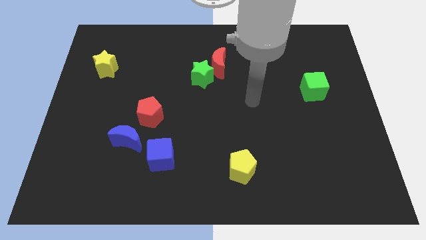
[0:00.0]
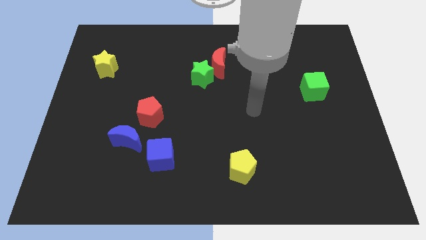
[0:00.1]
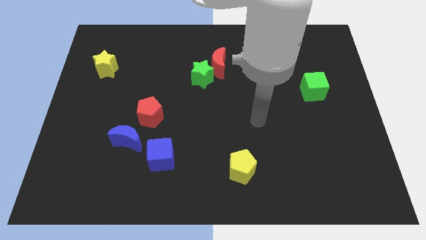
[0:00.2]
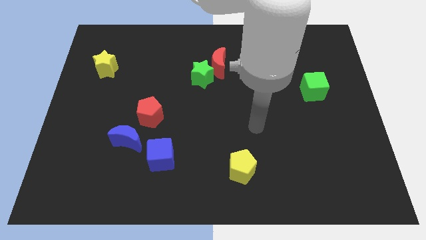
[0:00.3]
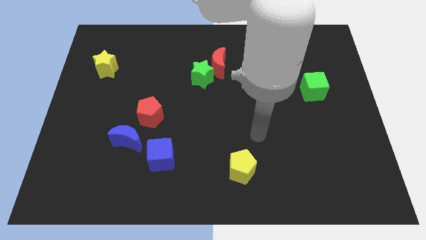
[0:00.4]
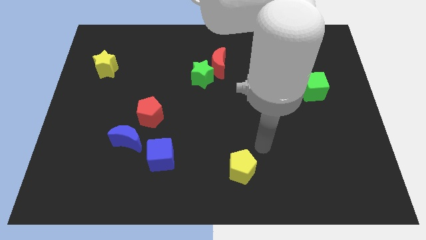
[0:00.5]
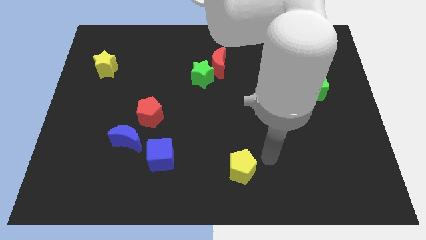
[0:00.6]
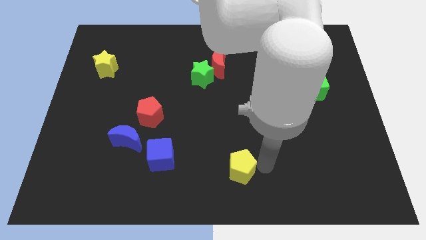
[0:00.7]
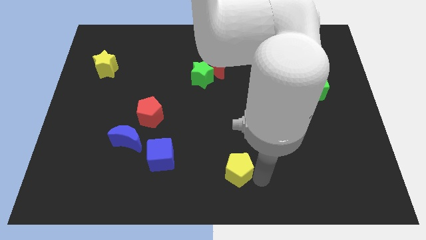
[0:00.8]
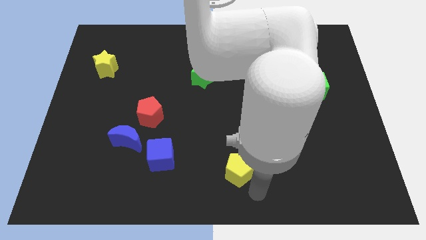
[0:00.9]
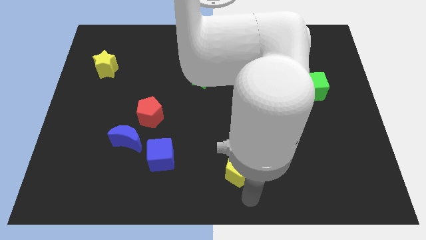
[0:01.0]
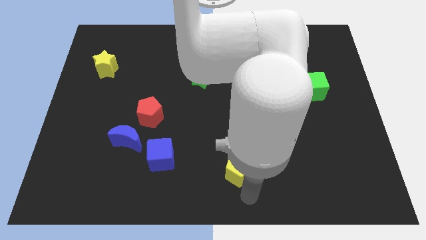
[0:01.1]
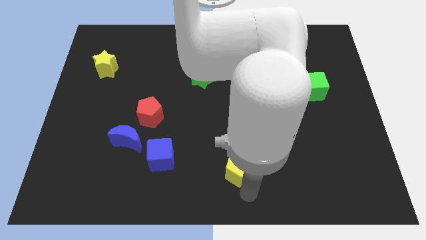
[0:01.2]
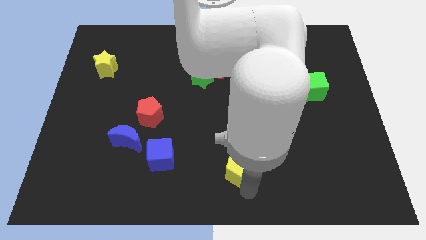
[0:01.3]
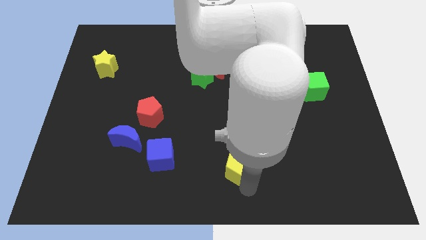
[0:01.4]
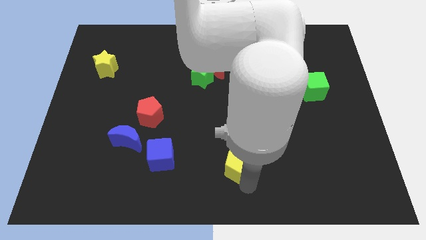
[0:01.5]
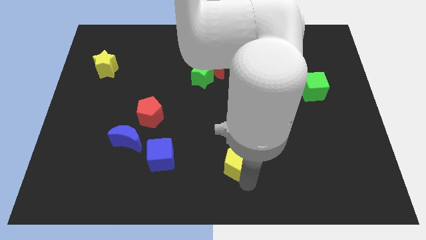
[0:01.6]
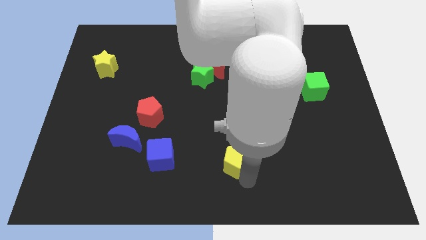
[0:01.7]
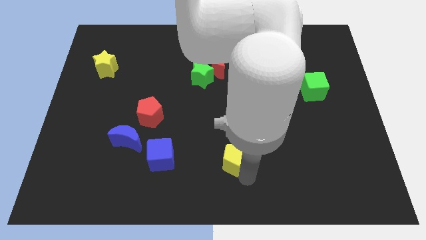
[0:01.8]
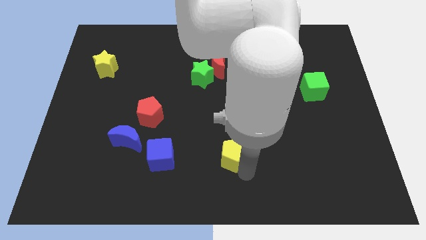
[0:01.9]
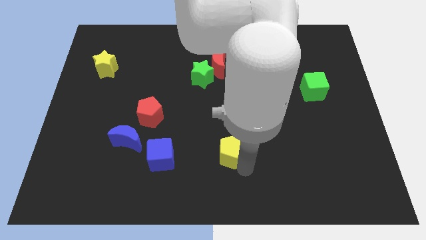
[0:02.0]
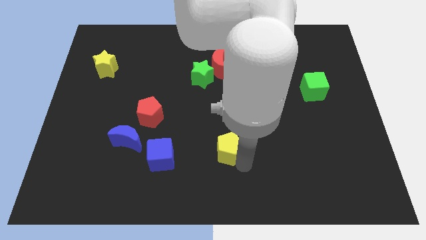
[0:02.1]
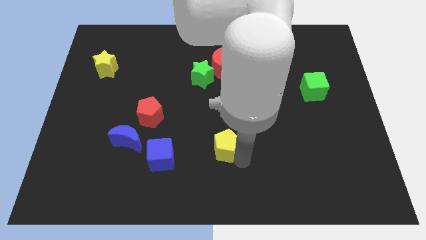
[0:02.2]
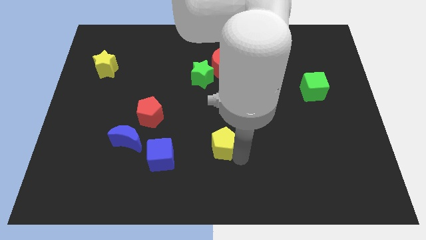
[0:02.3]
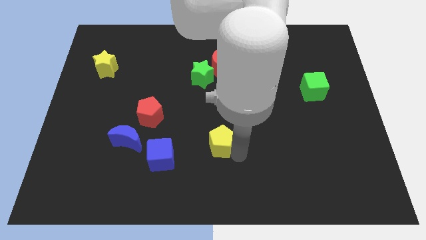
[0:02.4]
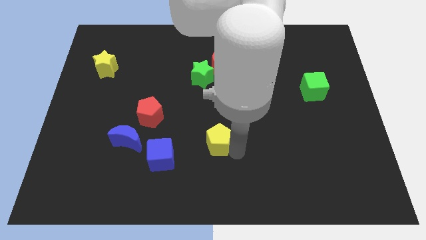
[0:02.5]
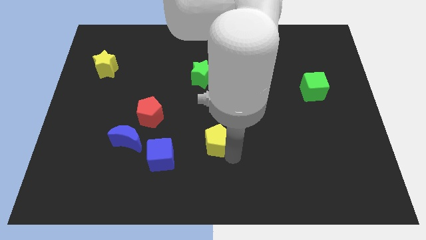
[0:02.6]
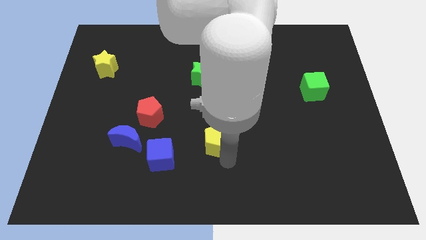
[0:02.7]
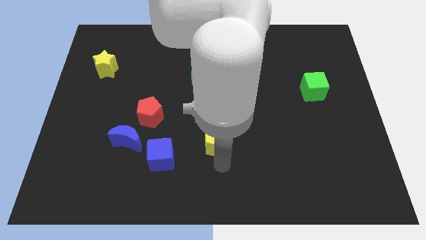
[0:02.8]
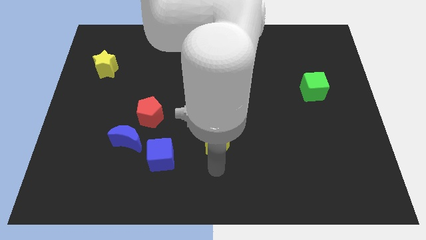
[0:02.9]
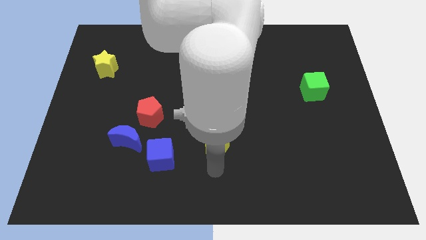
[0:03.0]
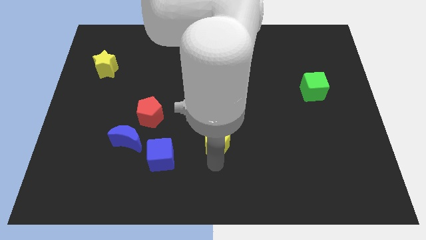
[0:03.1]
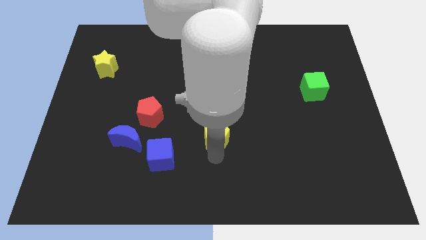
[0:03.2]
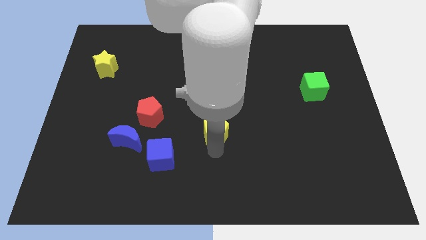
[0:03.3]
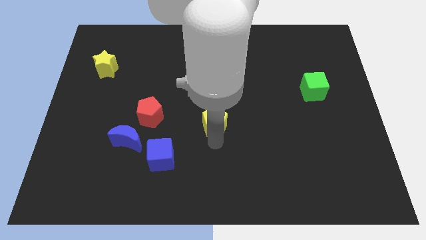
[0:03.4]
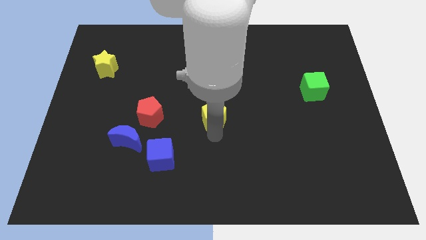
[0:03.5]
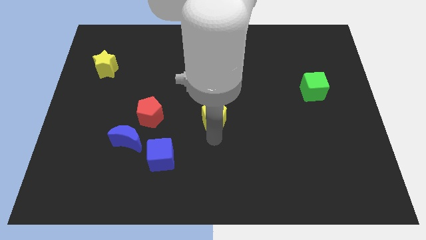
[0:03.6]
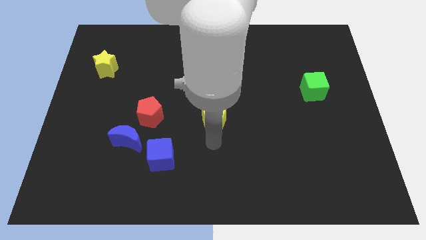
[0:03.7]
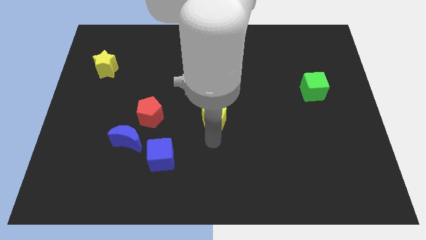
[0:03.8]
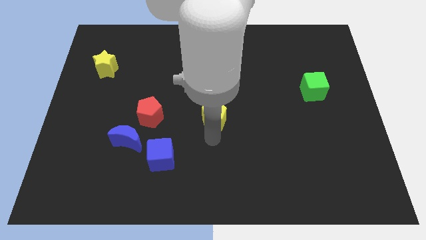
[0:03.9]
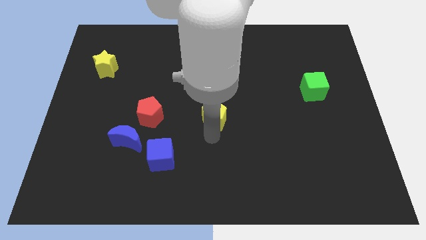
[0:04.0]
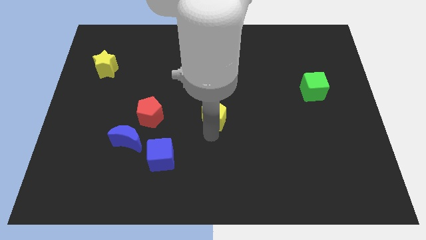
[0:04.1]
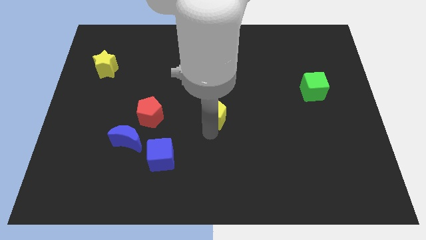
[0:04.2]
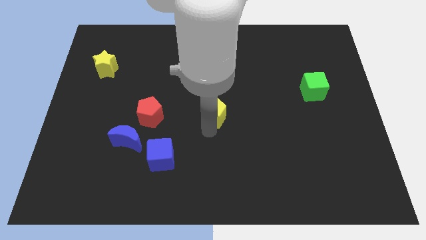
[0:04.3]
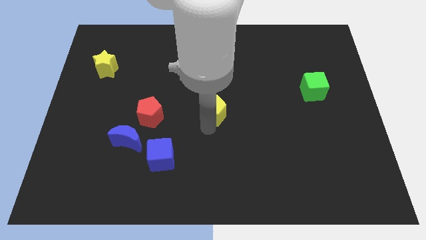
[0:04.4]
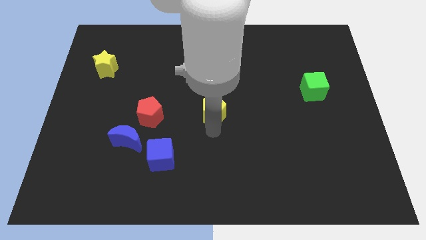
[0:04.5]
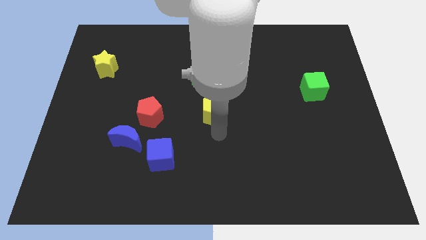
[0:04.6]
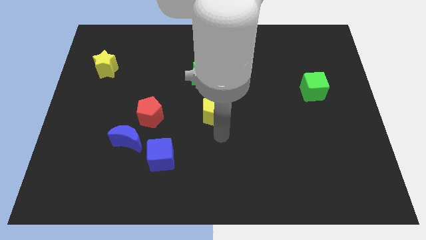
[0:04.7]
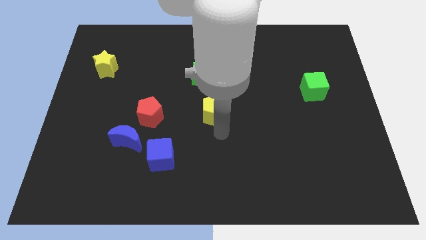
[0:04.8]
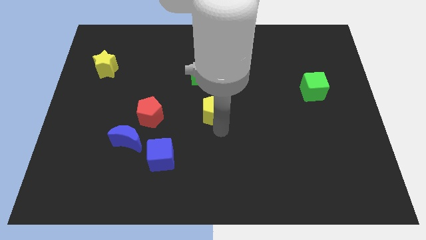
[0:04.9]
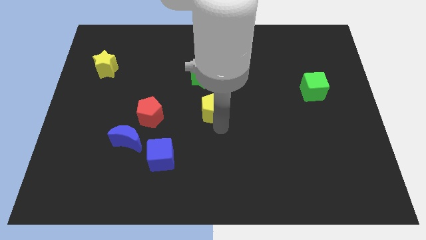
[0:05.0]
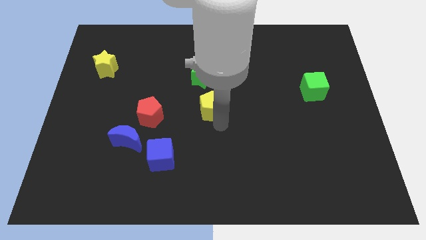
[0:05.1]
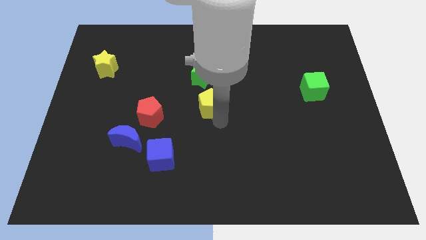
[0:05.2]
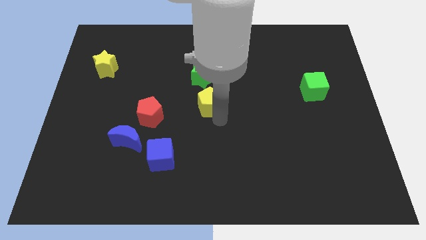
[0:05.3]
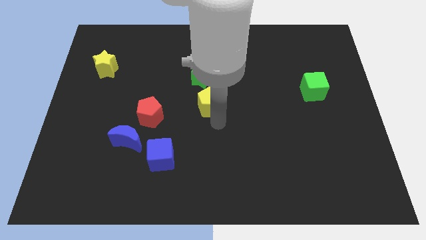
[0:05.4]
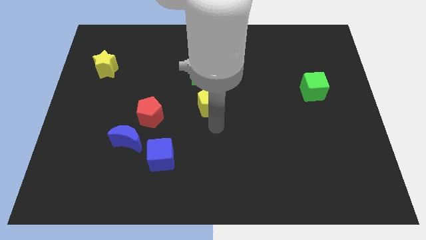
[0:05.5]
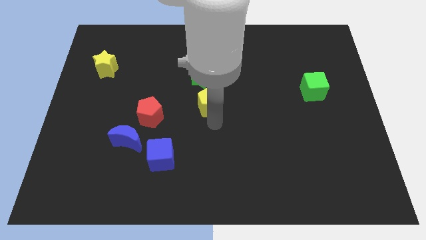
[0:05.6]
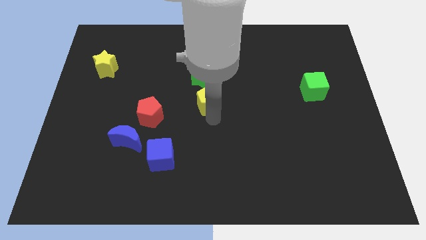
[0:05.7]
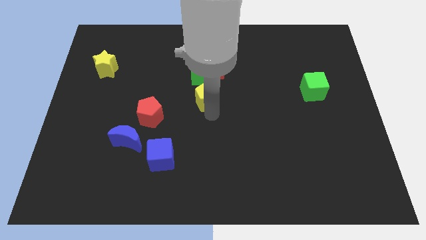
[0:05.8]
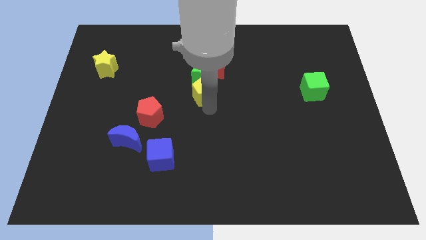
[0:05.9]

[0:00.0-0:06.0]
slide the yellow pentagon next to the green star

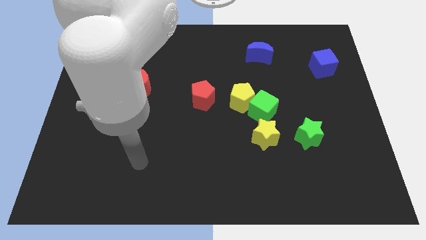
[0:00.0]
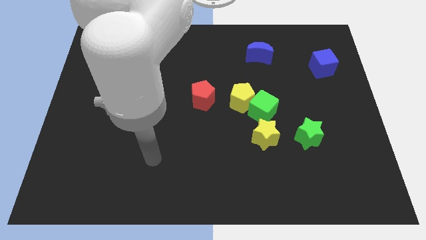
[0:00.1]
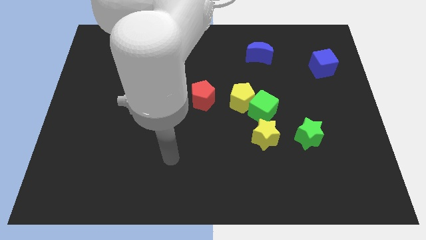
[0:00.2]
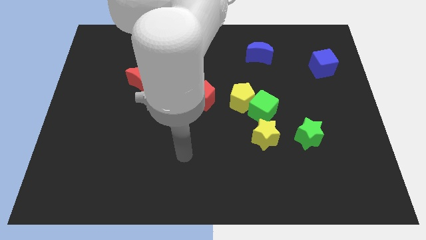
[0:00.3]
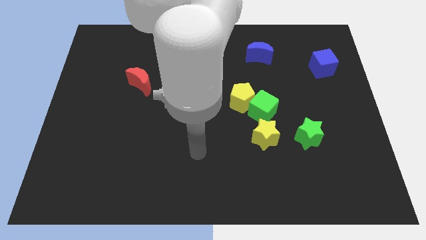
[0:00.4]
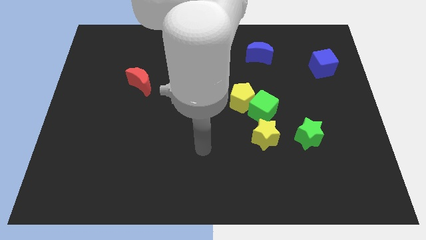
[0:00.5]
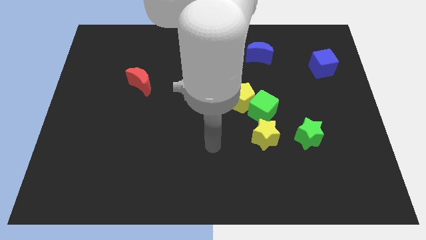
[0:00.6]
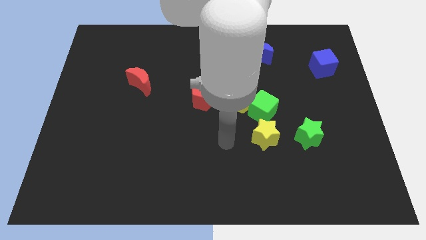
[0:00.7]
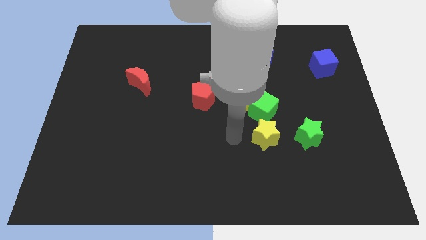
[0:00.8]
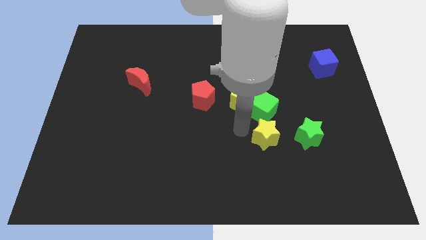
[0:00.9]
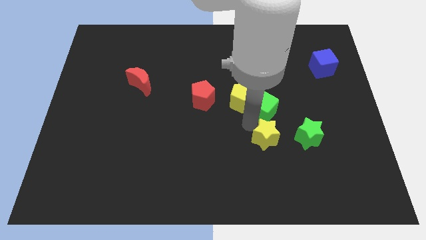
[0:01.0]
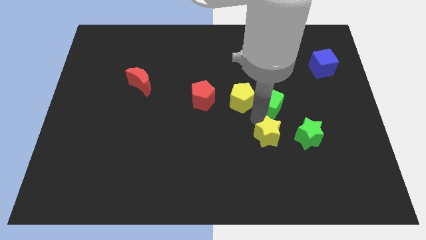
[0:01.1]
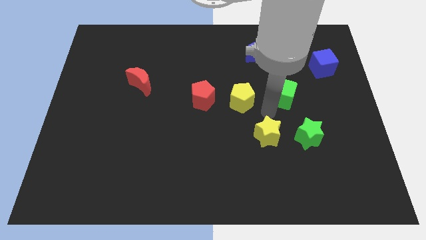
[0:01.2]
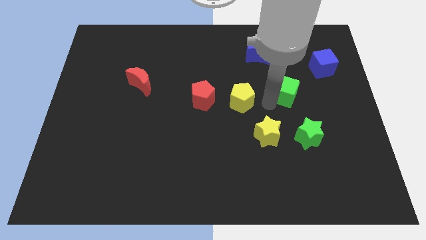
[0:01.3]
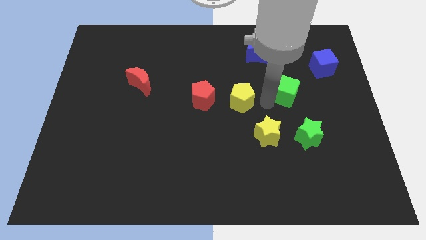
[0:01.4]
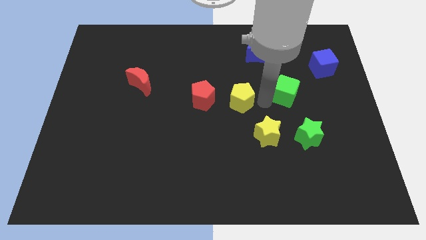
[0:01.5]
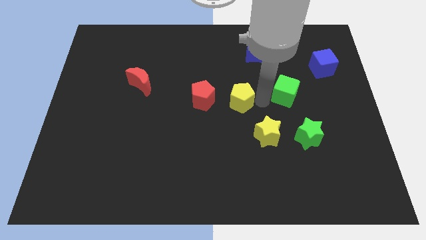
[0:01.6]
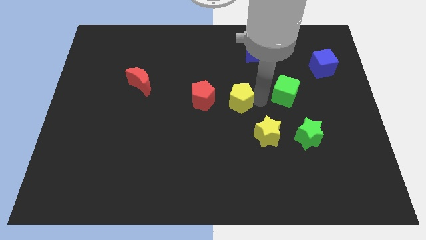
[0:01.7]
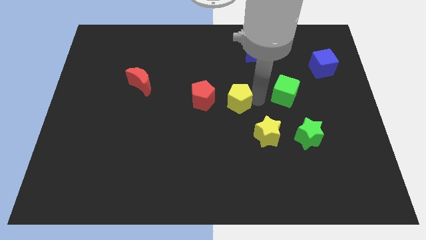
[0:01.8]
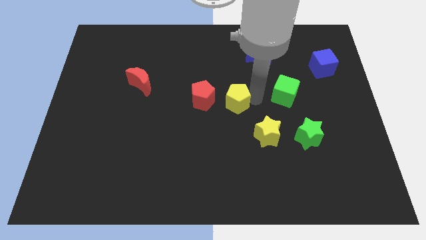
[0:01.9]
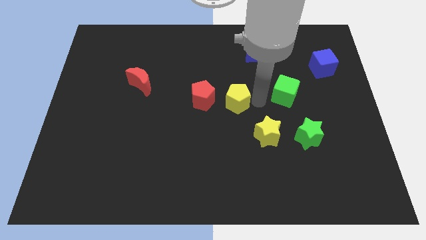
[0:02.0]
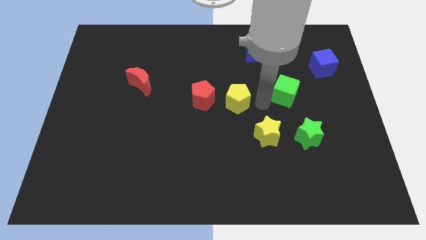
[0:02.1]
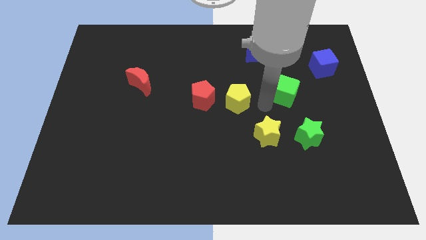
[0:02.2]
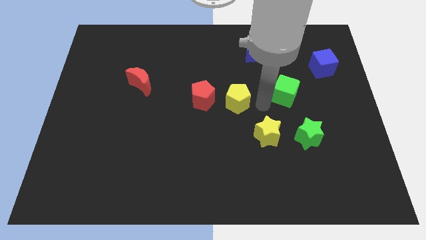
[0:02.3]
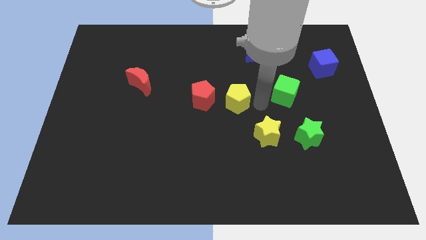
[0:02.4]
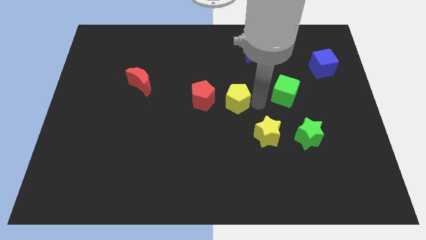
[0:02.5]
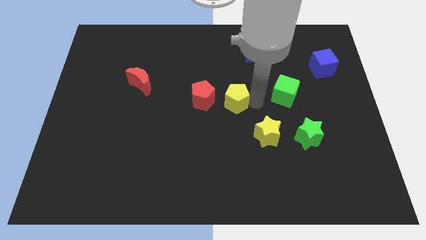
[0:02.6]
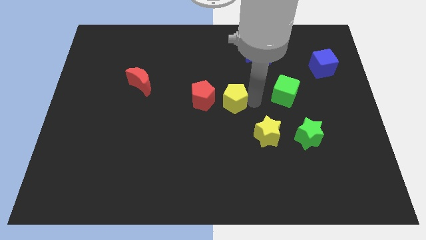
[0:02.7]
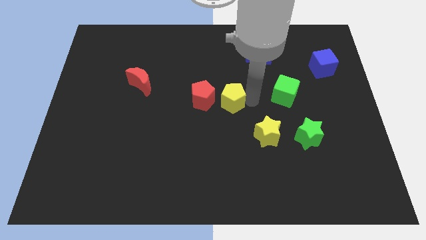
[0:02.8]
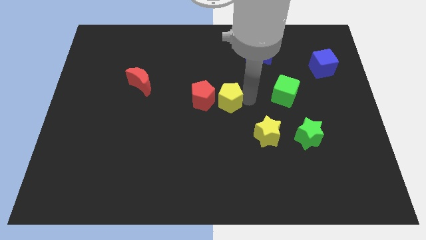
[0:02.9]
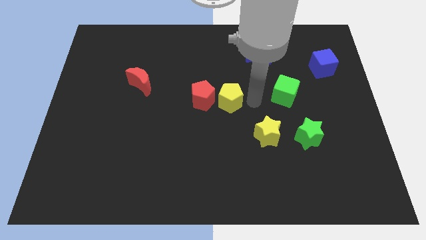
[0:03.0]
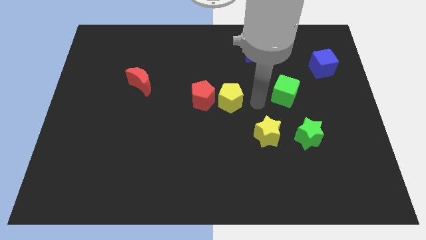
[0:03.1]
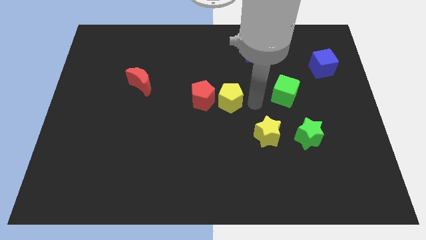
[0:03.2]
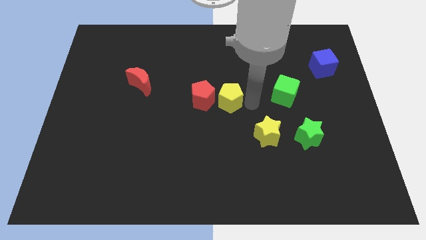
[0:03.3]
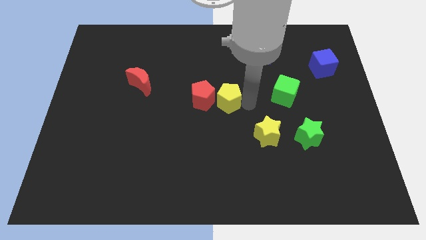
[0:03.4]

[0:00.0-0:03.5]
push the yellow pentagon next to the red pentagon
